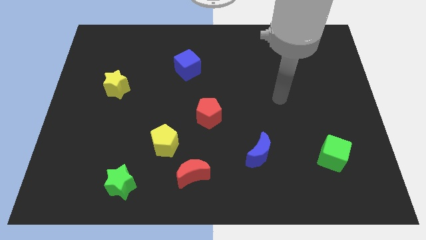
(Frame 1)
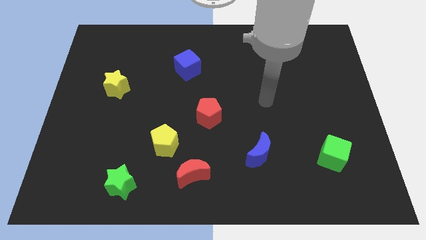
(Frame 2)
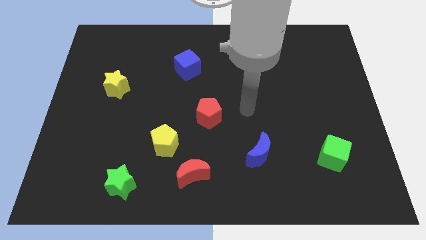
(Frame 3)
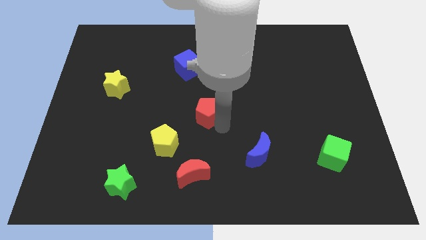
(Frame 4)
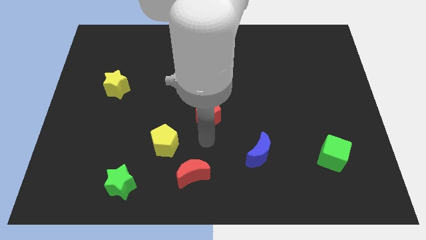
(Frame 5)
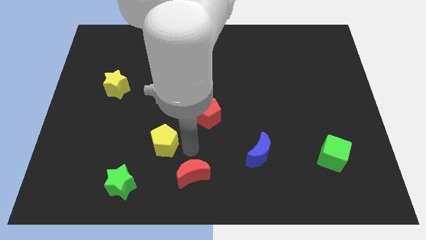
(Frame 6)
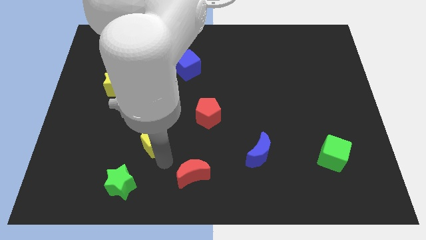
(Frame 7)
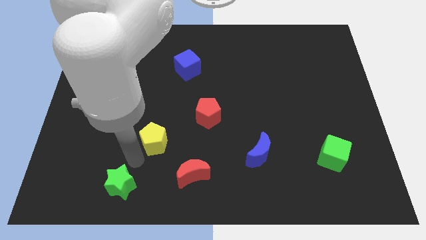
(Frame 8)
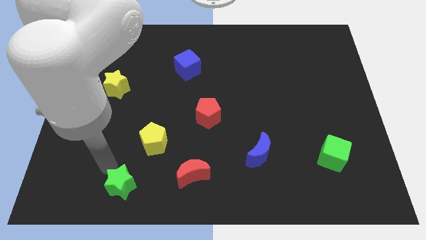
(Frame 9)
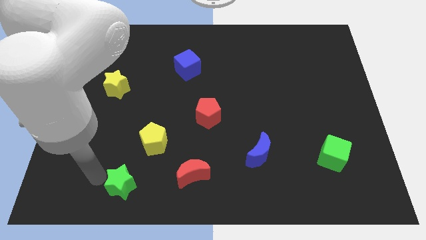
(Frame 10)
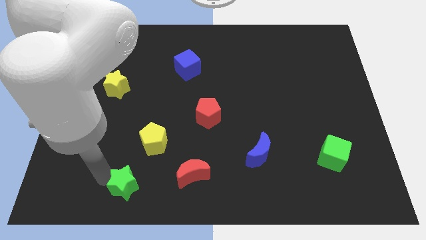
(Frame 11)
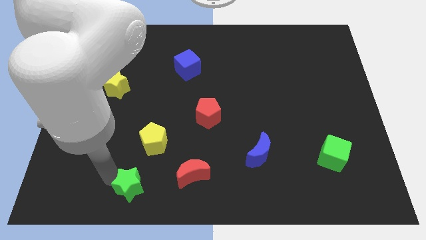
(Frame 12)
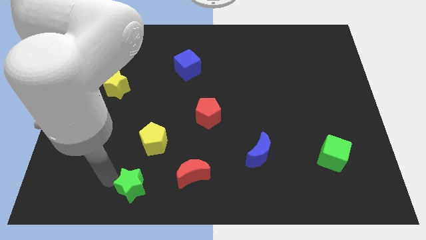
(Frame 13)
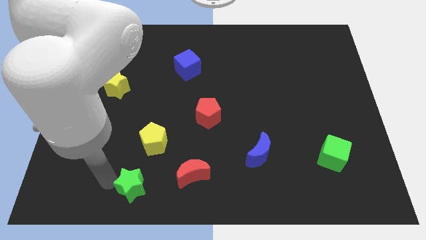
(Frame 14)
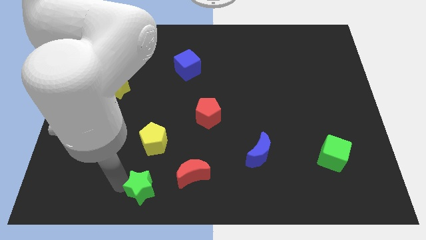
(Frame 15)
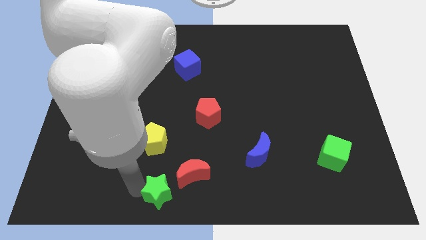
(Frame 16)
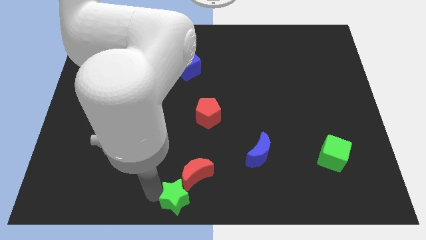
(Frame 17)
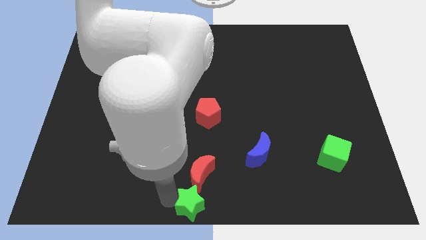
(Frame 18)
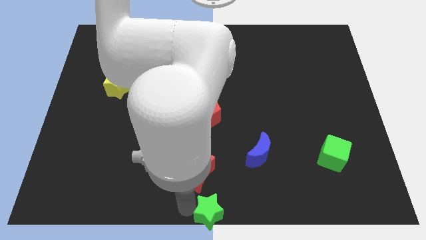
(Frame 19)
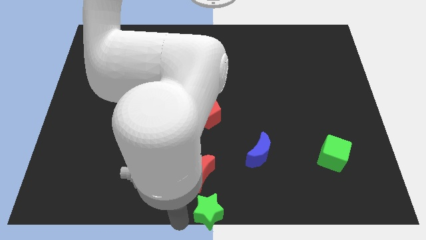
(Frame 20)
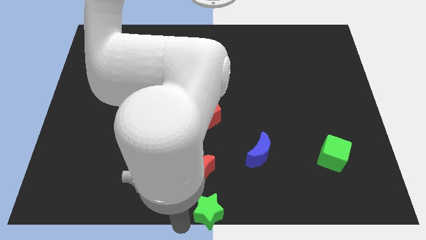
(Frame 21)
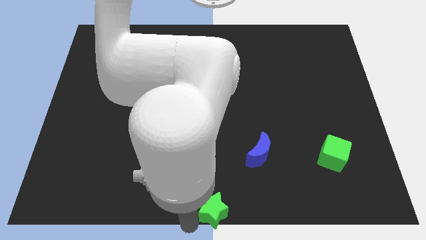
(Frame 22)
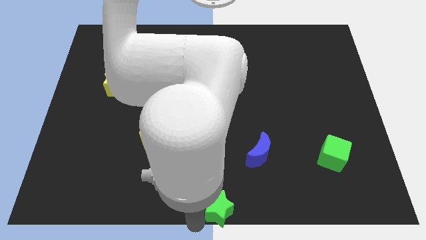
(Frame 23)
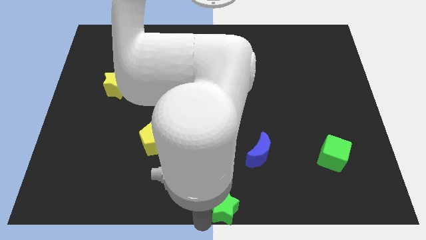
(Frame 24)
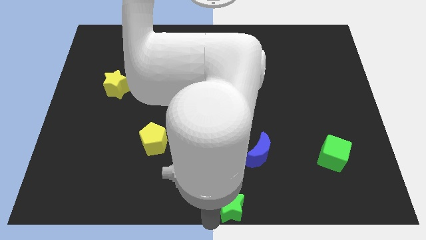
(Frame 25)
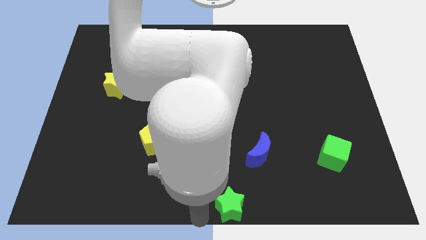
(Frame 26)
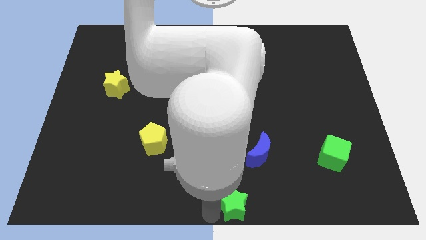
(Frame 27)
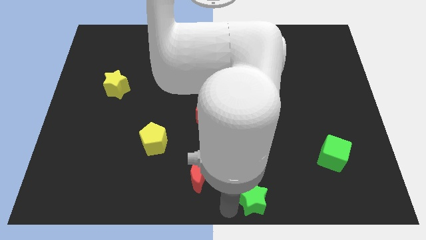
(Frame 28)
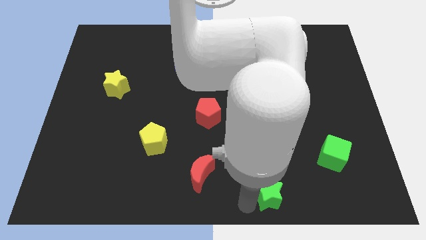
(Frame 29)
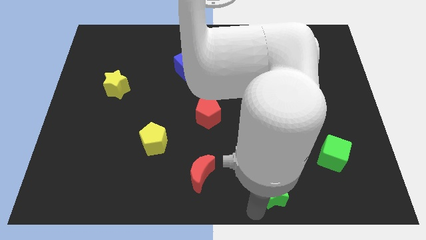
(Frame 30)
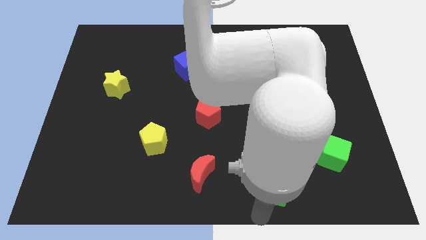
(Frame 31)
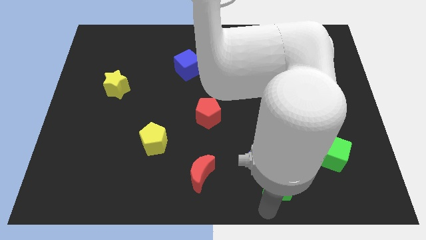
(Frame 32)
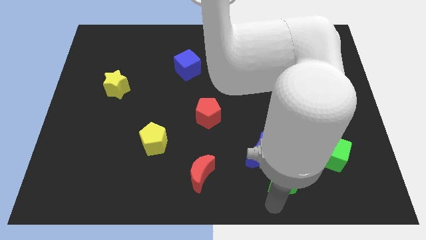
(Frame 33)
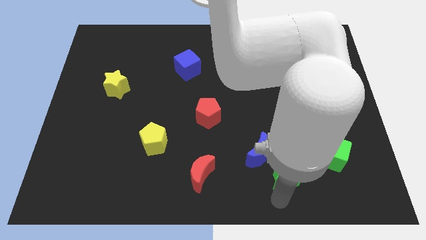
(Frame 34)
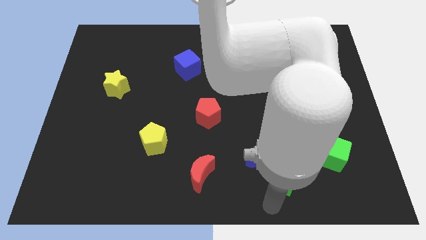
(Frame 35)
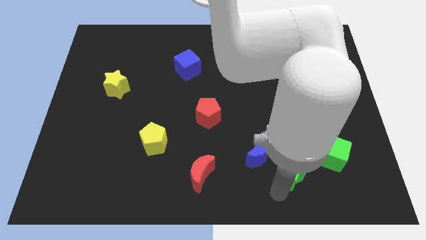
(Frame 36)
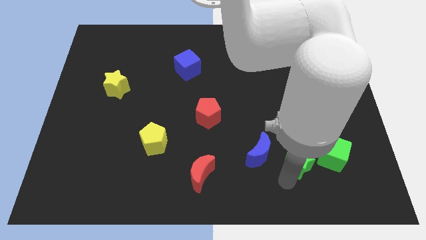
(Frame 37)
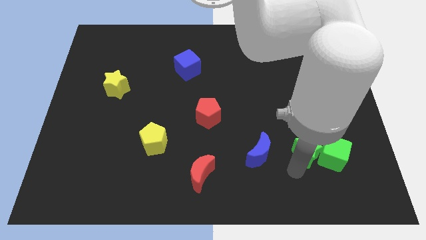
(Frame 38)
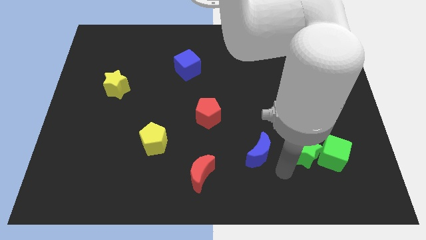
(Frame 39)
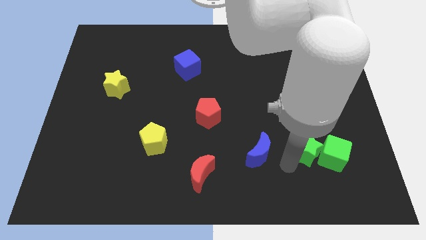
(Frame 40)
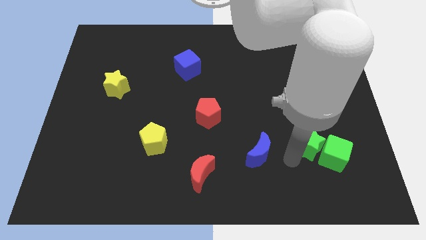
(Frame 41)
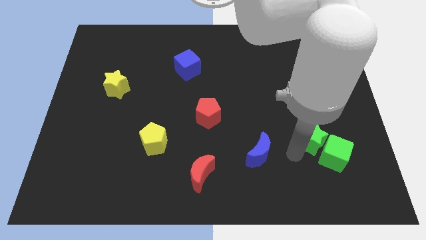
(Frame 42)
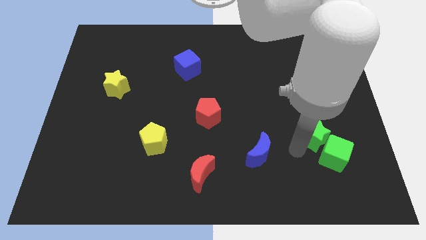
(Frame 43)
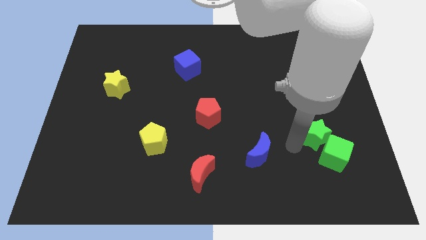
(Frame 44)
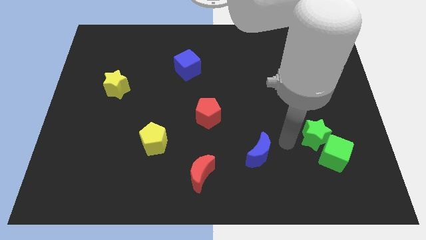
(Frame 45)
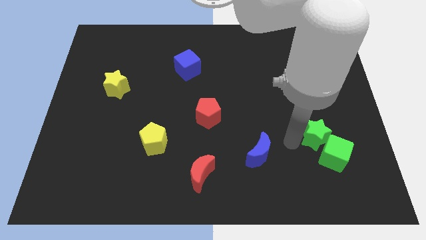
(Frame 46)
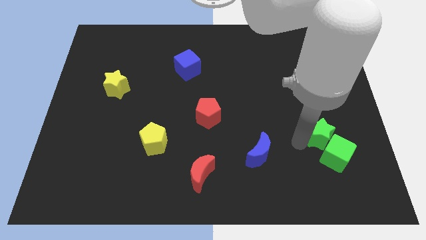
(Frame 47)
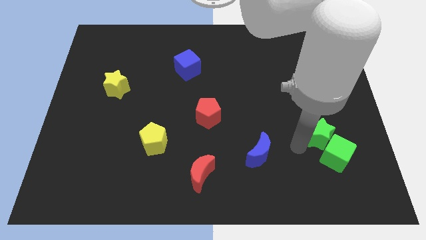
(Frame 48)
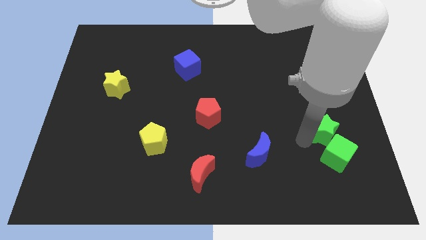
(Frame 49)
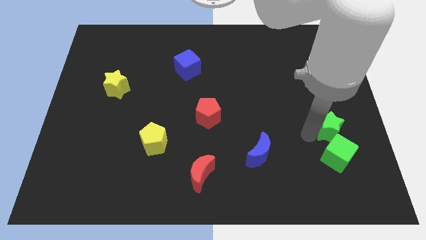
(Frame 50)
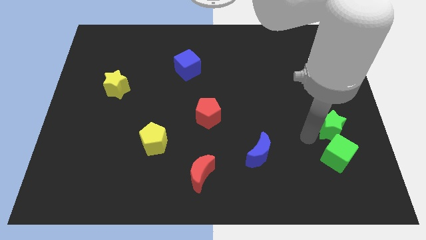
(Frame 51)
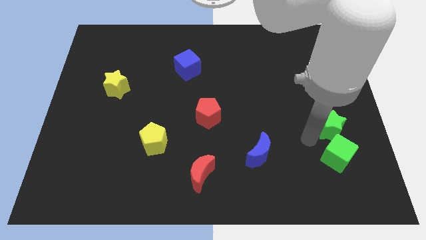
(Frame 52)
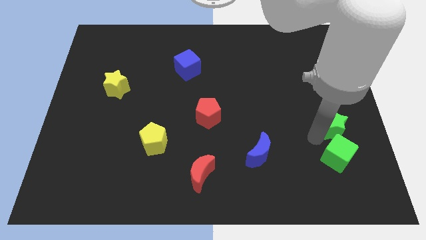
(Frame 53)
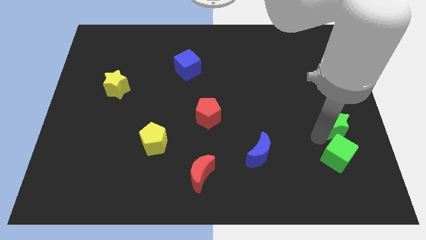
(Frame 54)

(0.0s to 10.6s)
move the green star to the right side

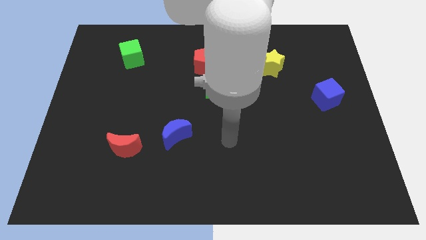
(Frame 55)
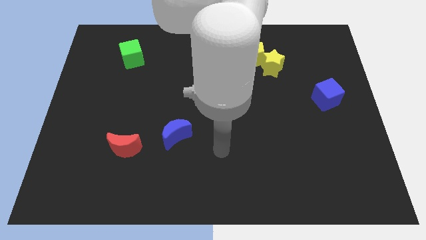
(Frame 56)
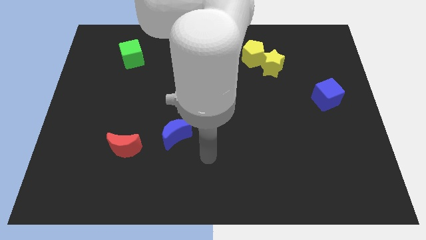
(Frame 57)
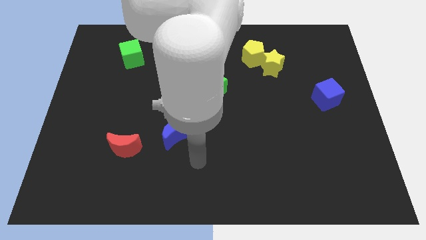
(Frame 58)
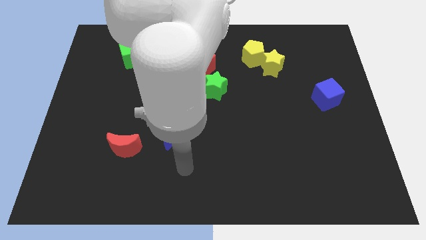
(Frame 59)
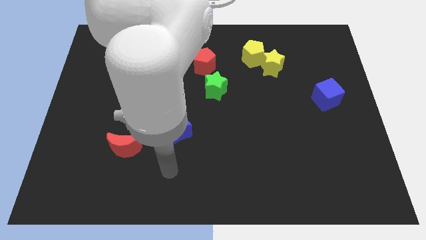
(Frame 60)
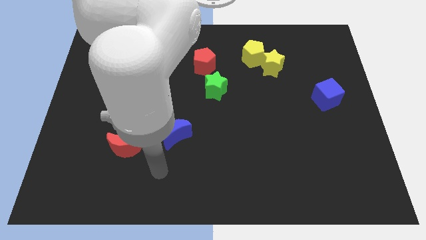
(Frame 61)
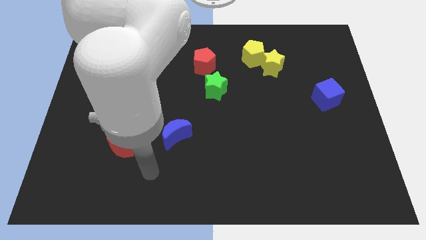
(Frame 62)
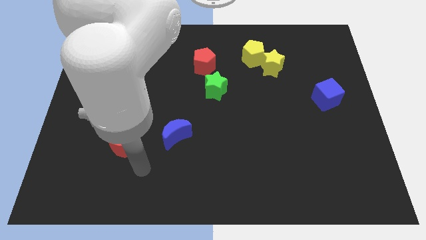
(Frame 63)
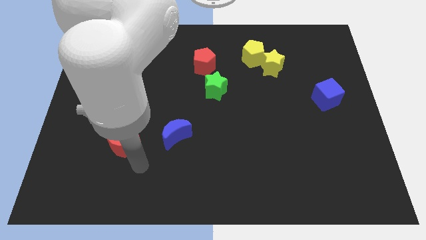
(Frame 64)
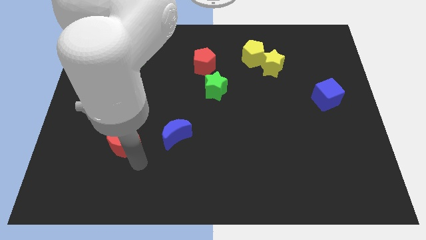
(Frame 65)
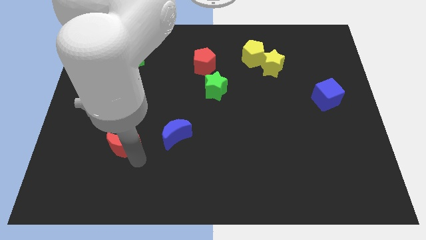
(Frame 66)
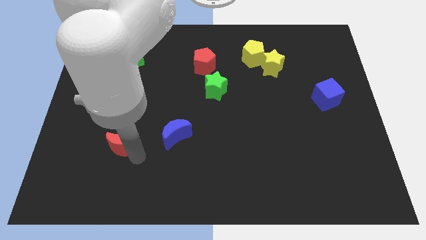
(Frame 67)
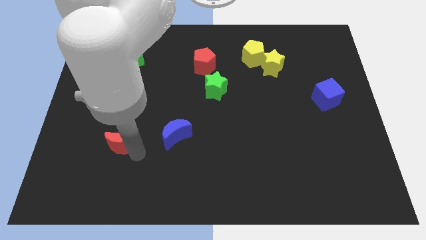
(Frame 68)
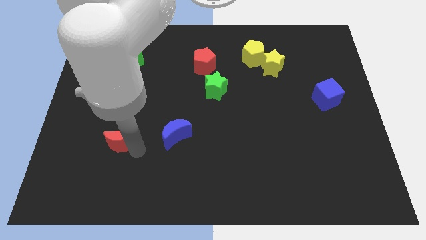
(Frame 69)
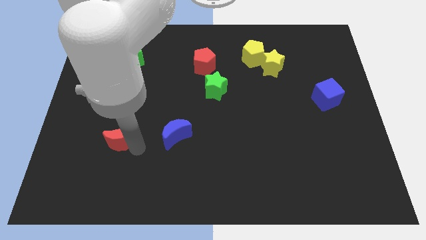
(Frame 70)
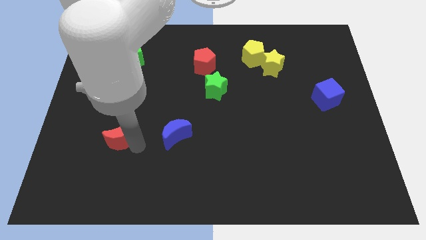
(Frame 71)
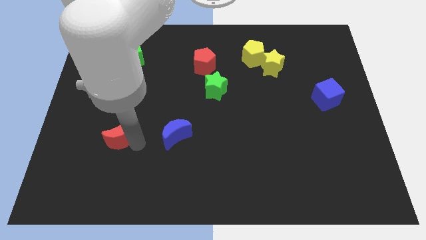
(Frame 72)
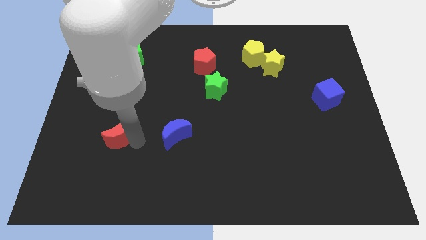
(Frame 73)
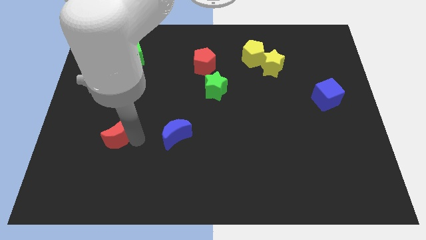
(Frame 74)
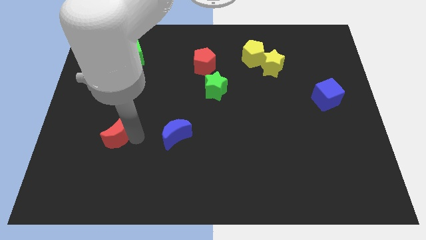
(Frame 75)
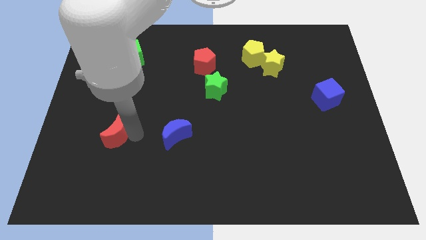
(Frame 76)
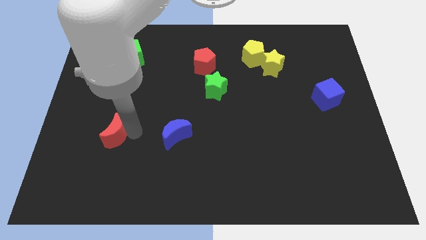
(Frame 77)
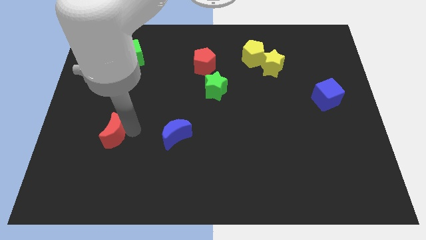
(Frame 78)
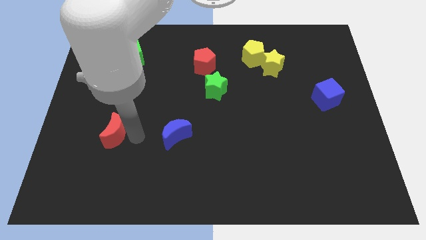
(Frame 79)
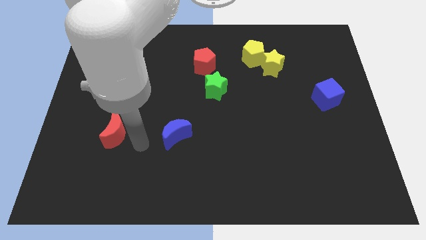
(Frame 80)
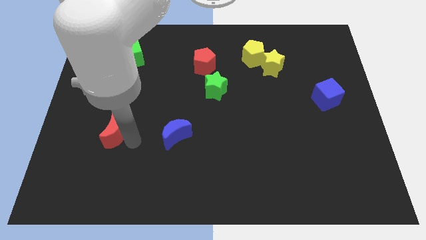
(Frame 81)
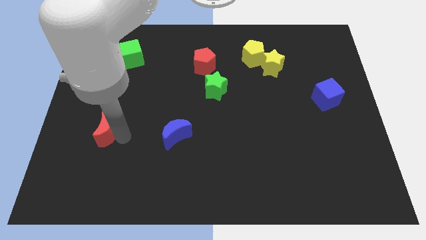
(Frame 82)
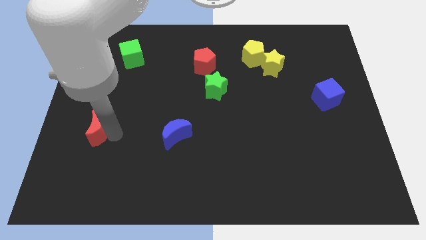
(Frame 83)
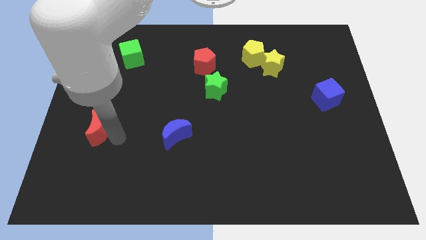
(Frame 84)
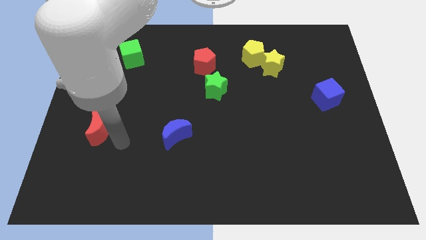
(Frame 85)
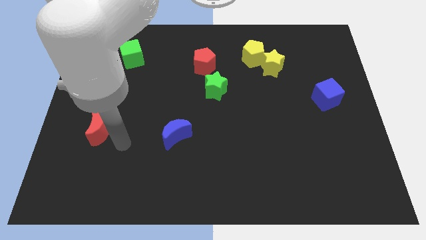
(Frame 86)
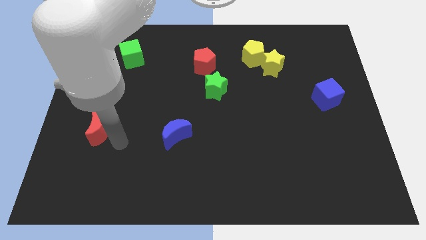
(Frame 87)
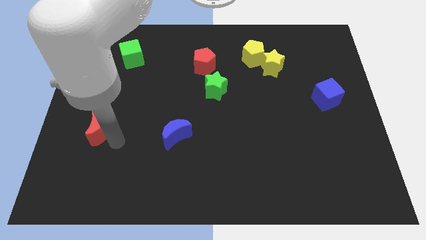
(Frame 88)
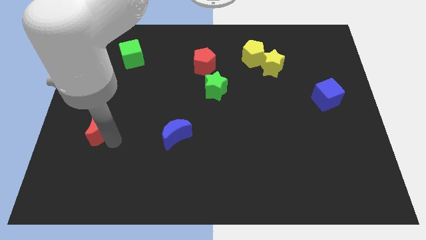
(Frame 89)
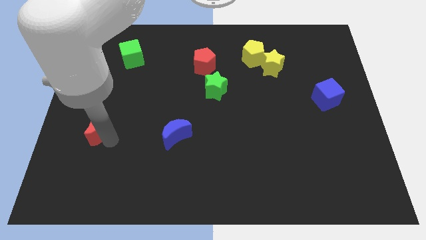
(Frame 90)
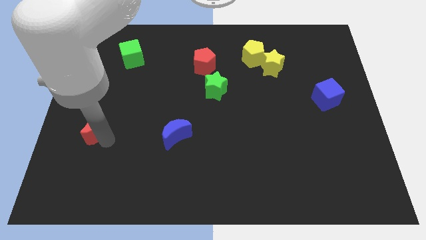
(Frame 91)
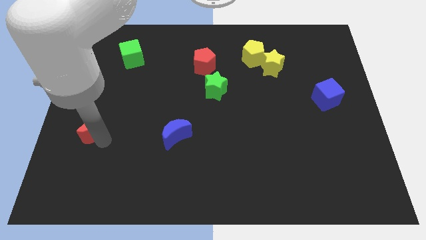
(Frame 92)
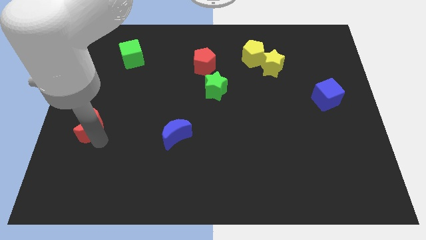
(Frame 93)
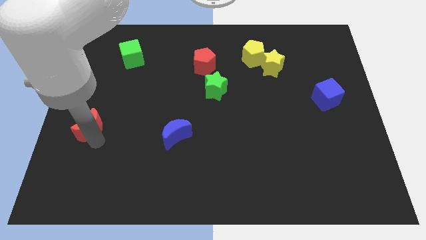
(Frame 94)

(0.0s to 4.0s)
push the red moon to the center left
